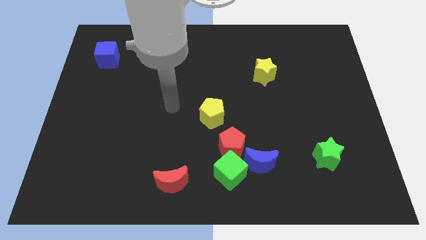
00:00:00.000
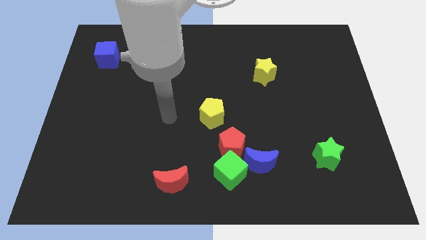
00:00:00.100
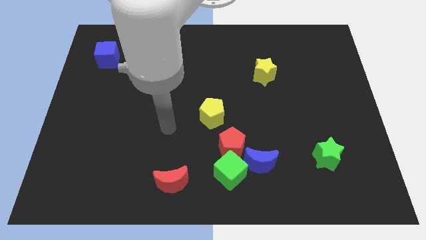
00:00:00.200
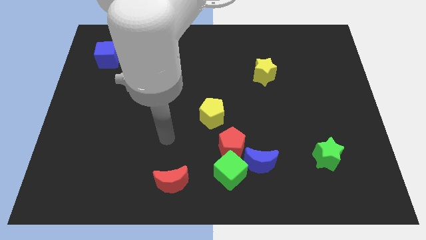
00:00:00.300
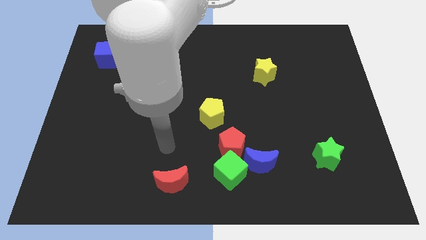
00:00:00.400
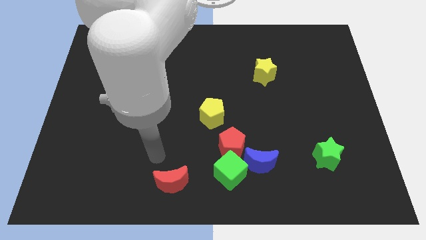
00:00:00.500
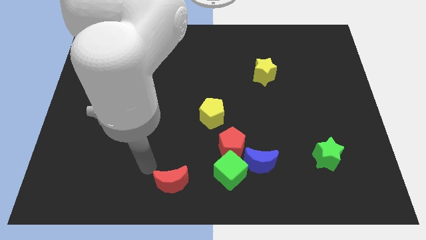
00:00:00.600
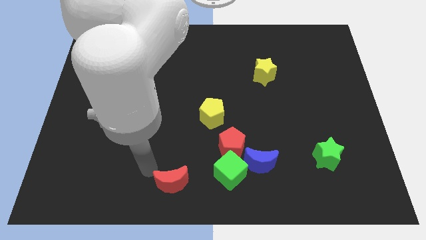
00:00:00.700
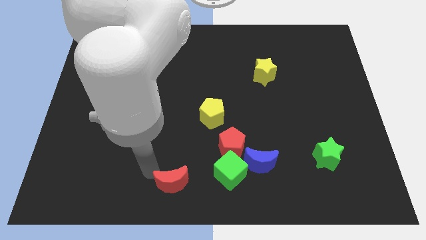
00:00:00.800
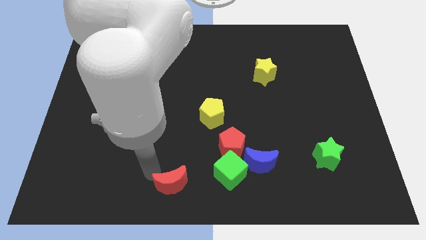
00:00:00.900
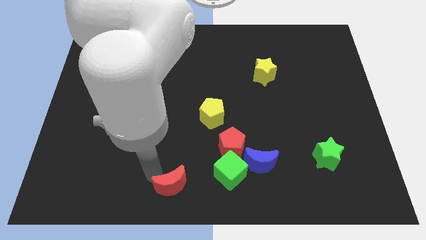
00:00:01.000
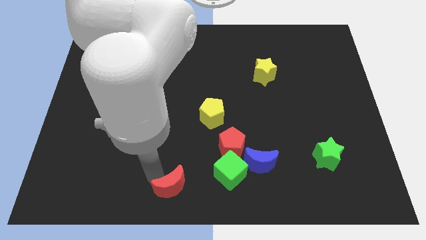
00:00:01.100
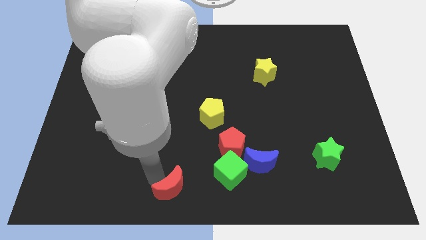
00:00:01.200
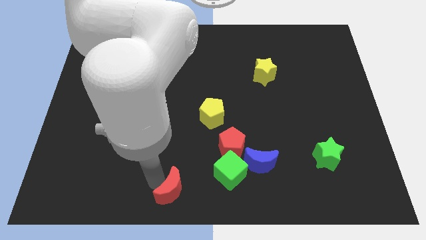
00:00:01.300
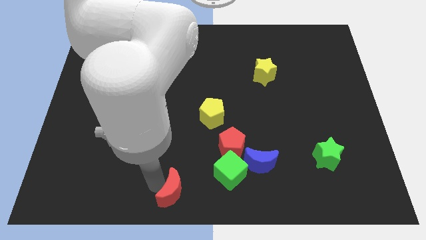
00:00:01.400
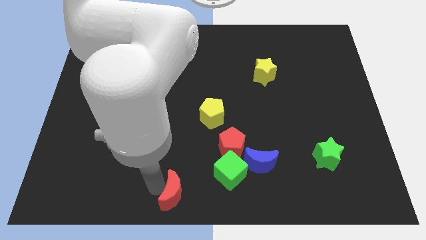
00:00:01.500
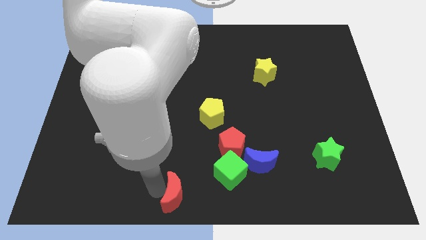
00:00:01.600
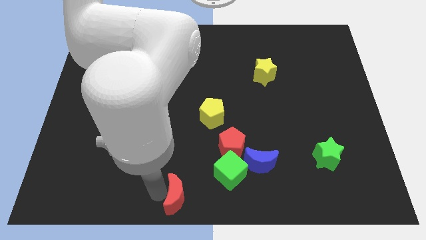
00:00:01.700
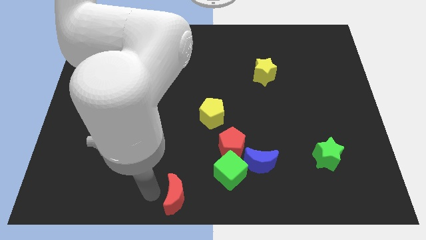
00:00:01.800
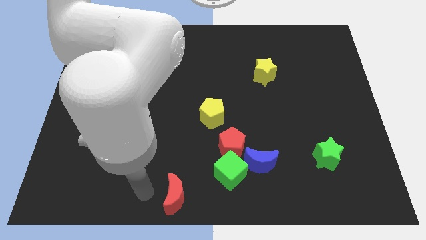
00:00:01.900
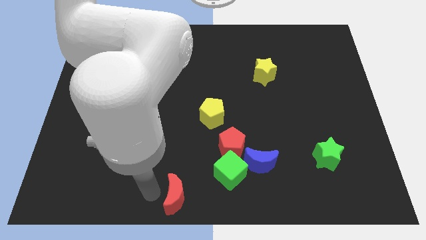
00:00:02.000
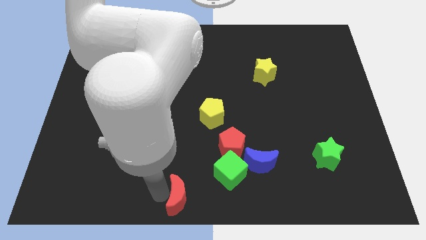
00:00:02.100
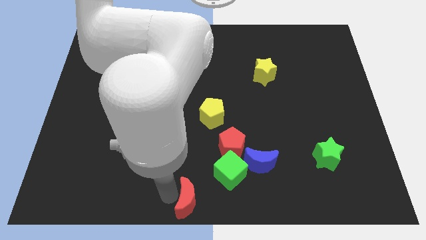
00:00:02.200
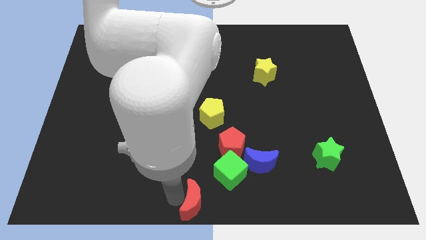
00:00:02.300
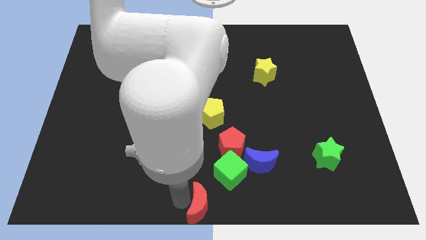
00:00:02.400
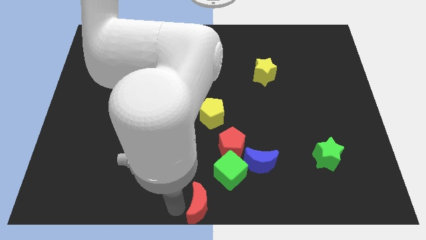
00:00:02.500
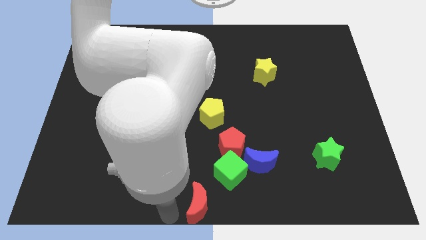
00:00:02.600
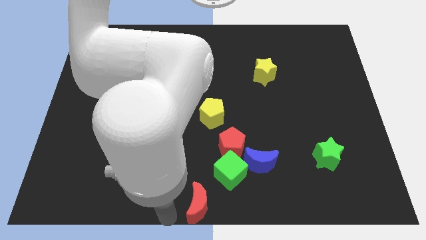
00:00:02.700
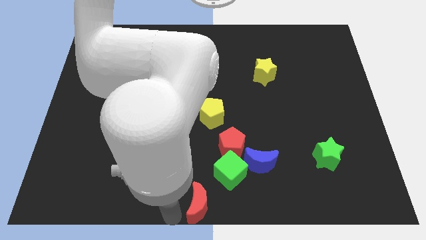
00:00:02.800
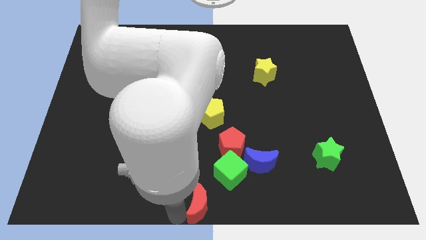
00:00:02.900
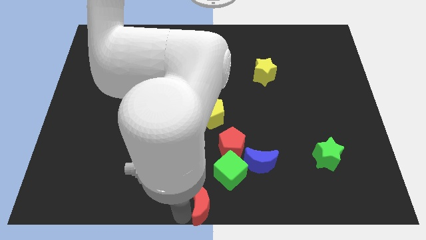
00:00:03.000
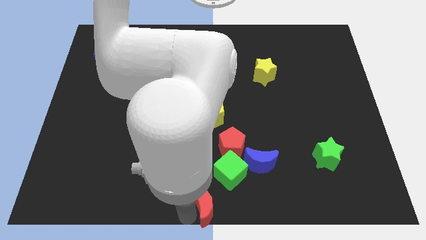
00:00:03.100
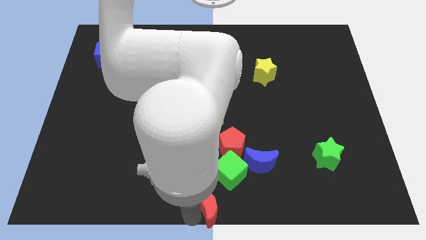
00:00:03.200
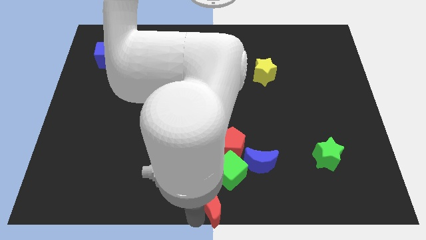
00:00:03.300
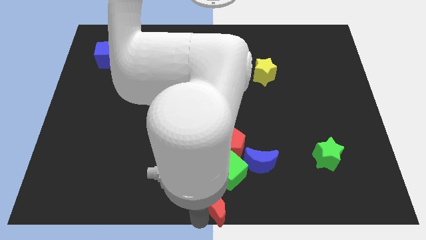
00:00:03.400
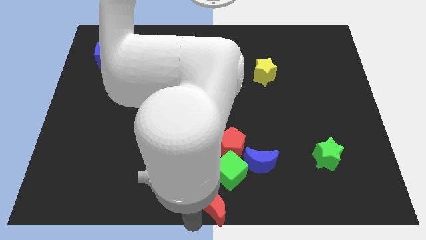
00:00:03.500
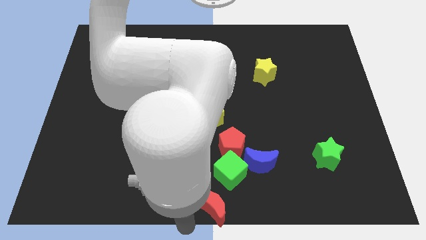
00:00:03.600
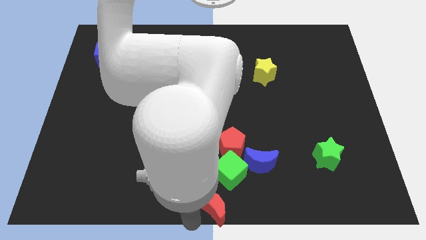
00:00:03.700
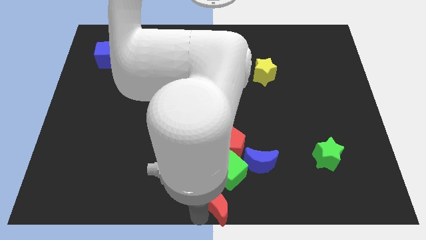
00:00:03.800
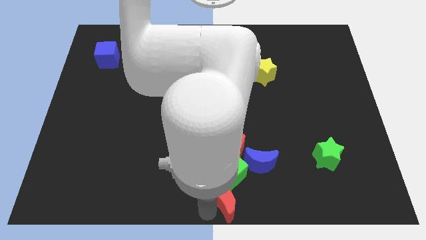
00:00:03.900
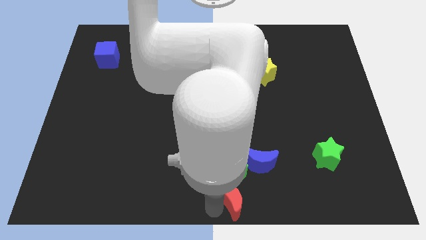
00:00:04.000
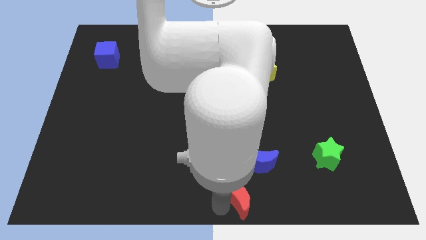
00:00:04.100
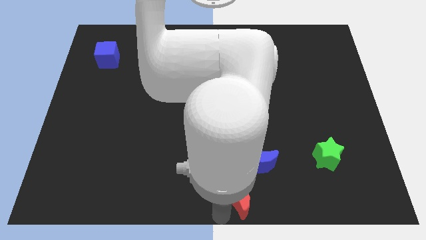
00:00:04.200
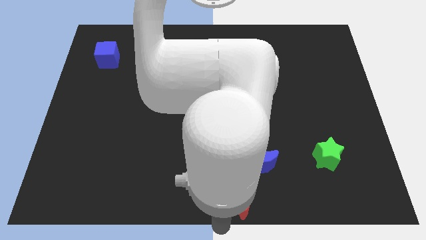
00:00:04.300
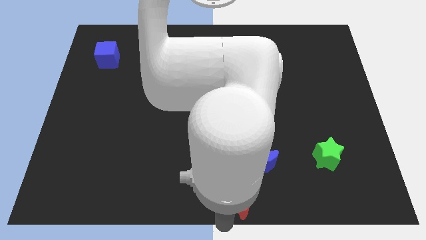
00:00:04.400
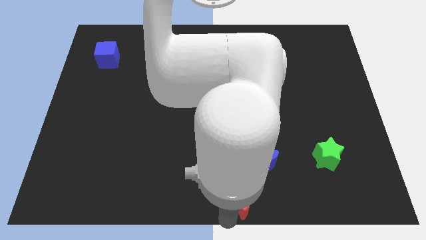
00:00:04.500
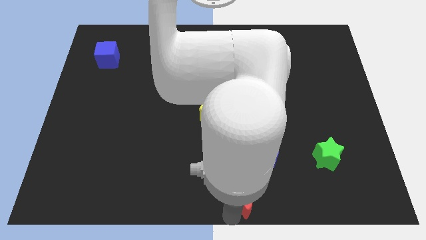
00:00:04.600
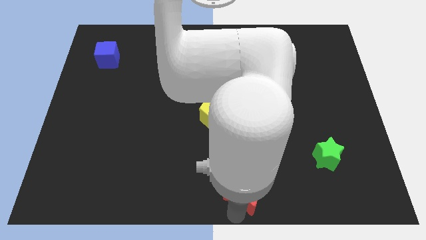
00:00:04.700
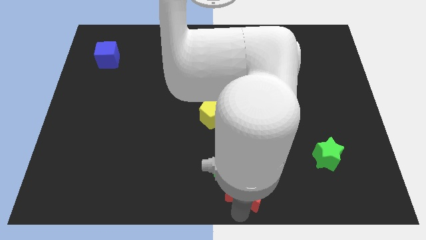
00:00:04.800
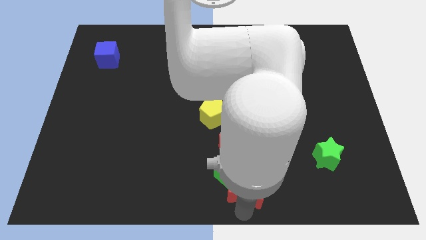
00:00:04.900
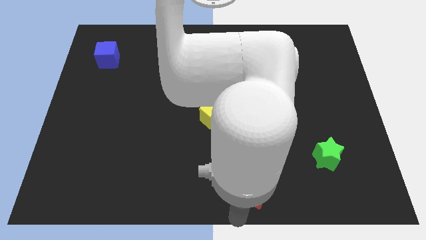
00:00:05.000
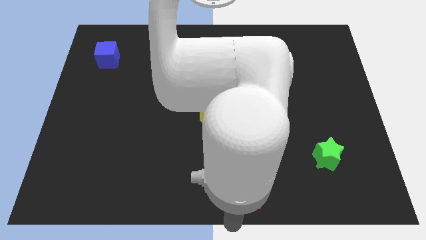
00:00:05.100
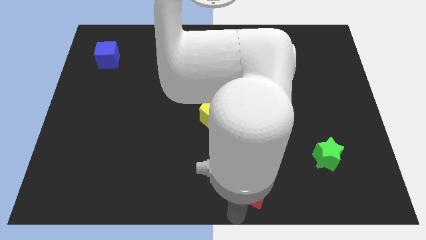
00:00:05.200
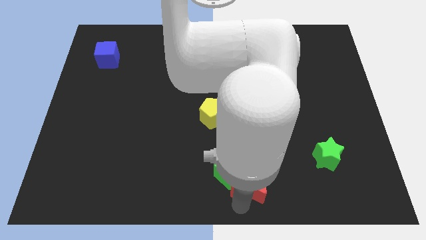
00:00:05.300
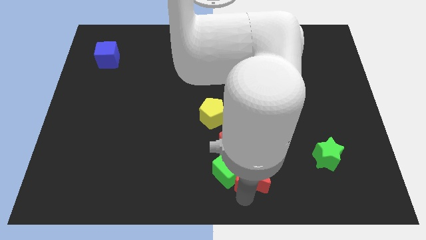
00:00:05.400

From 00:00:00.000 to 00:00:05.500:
put the red moon next to the blue moon

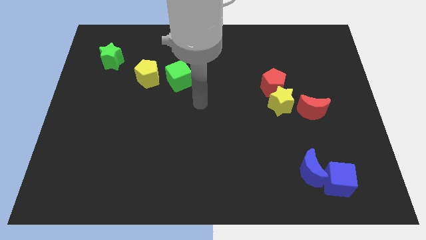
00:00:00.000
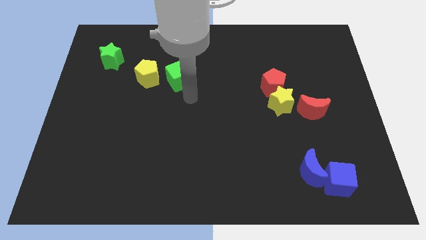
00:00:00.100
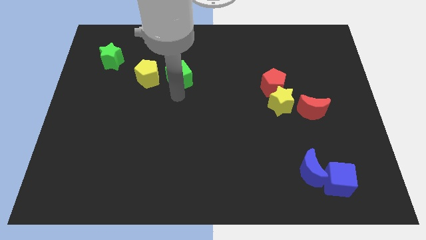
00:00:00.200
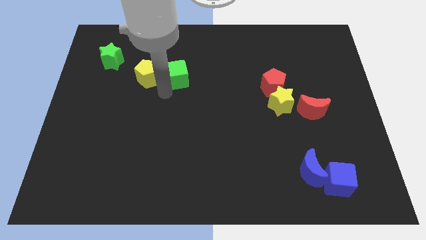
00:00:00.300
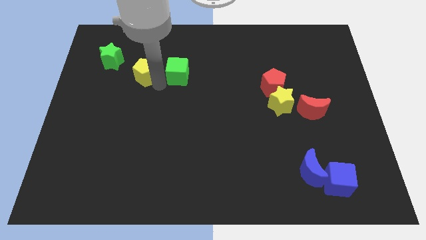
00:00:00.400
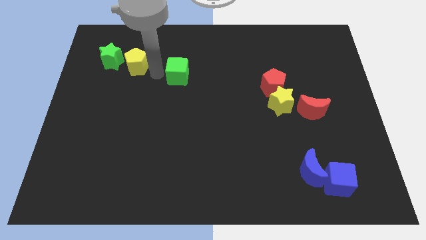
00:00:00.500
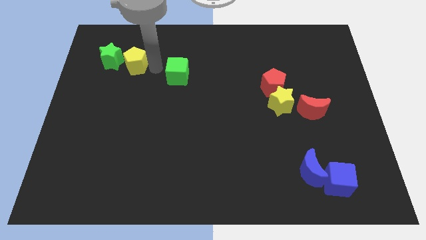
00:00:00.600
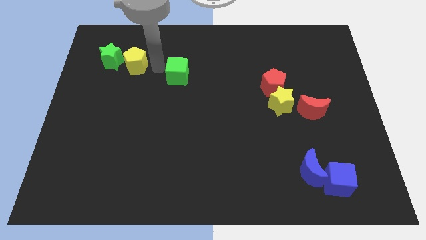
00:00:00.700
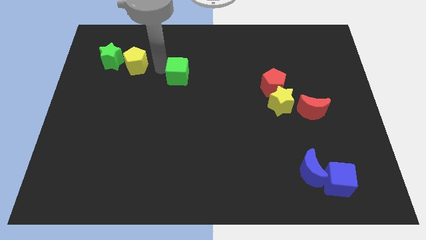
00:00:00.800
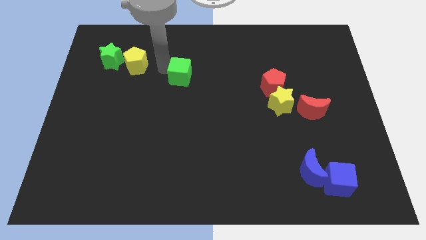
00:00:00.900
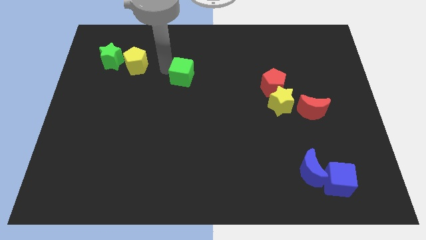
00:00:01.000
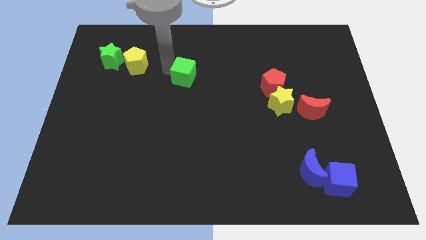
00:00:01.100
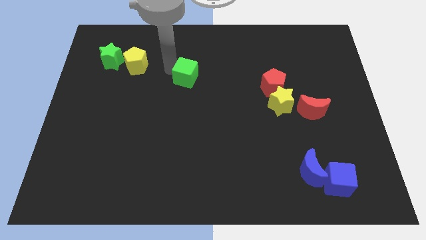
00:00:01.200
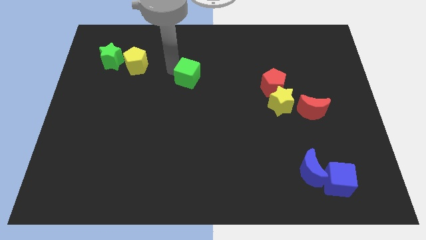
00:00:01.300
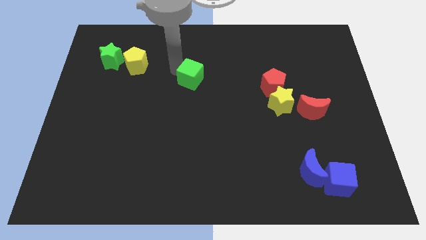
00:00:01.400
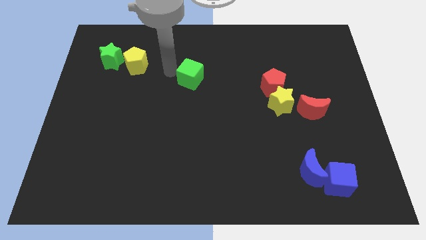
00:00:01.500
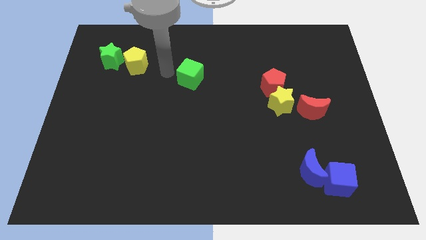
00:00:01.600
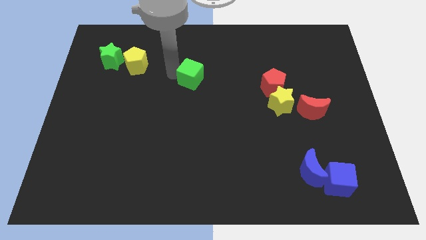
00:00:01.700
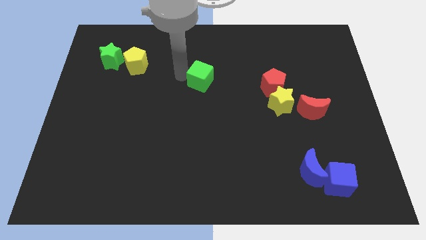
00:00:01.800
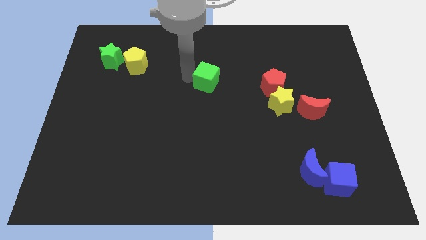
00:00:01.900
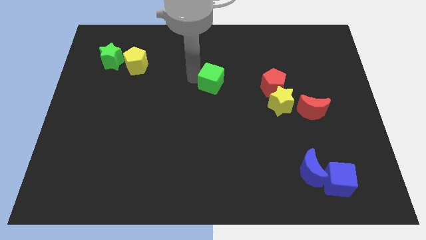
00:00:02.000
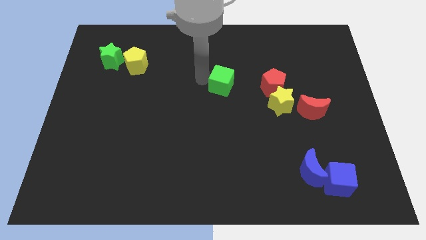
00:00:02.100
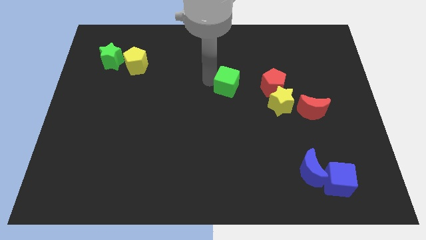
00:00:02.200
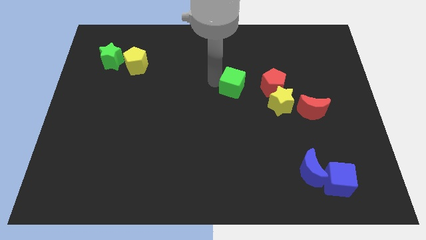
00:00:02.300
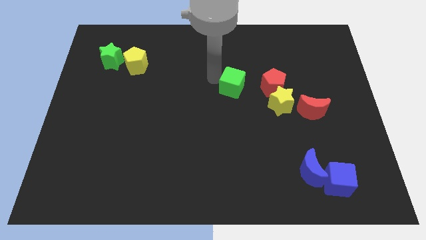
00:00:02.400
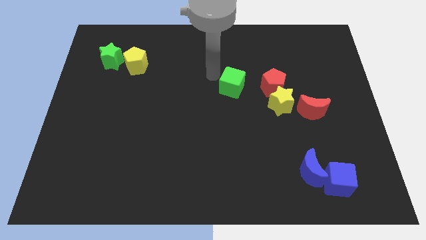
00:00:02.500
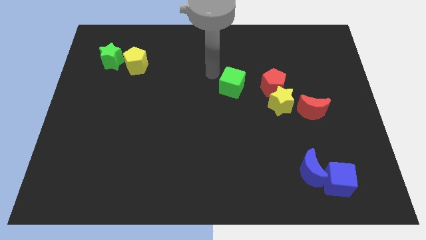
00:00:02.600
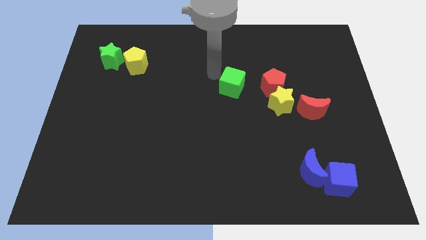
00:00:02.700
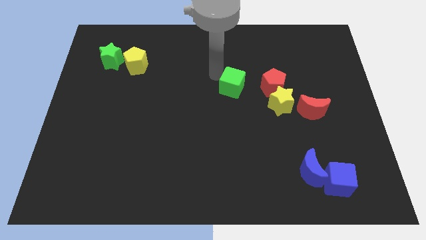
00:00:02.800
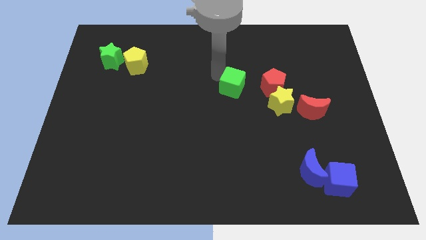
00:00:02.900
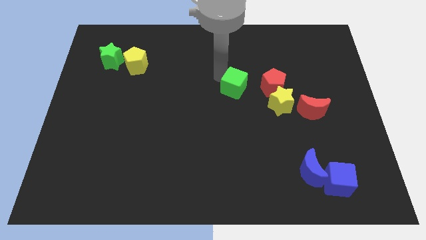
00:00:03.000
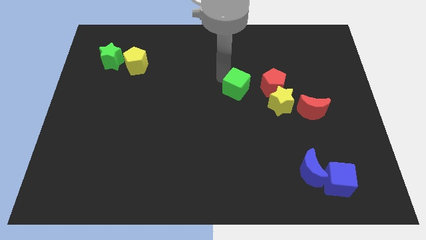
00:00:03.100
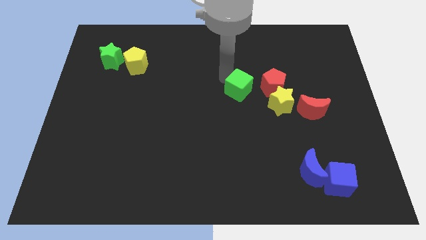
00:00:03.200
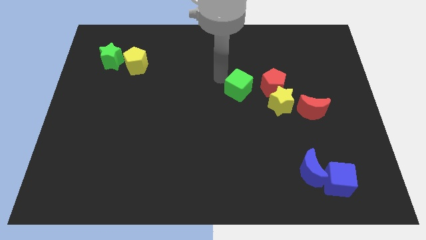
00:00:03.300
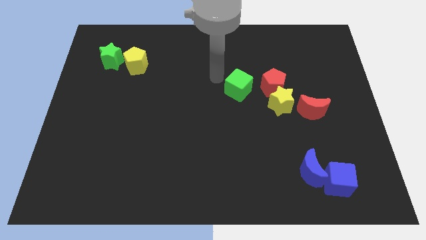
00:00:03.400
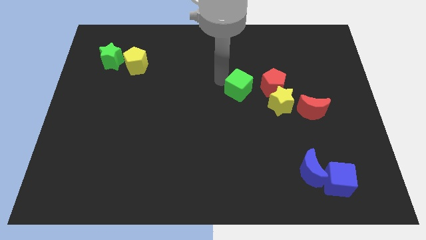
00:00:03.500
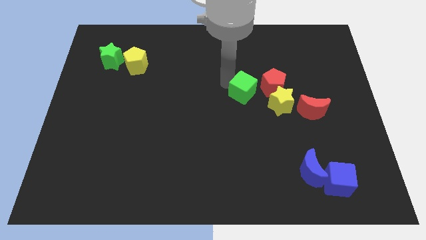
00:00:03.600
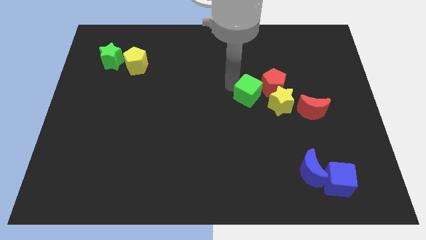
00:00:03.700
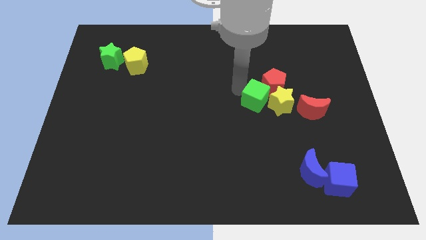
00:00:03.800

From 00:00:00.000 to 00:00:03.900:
slide the green cube next to the yellow star
